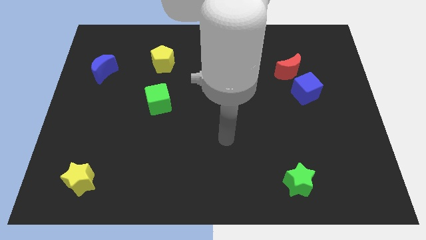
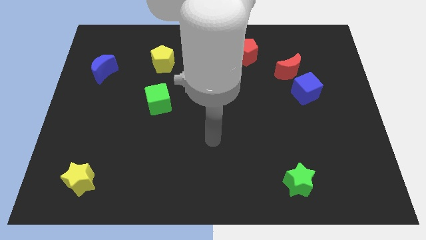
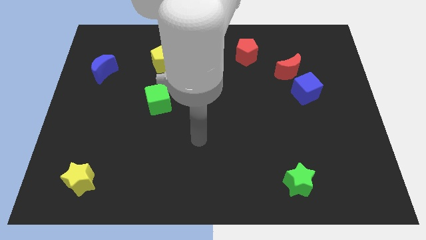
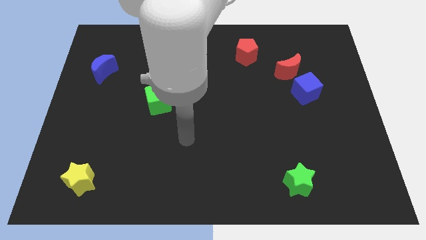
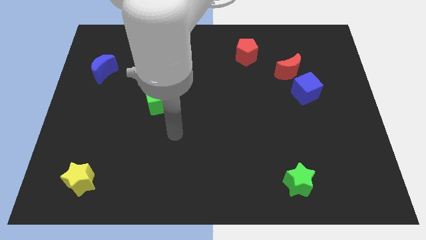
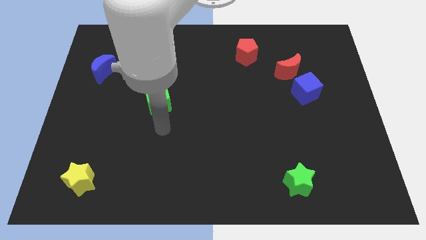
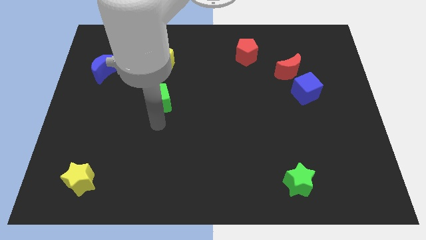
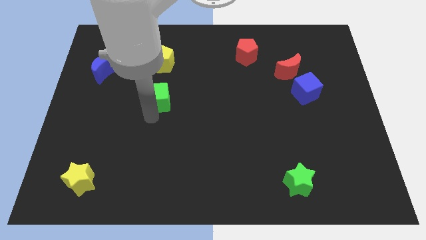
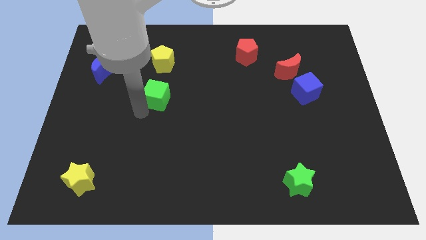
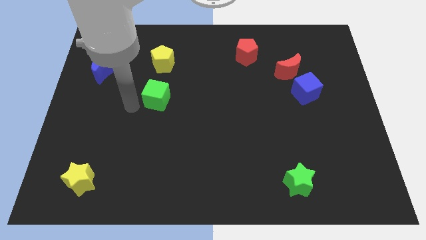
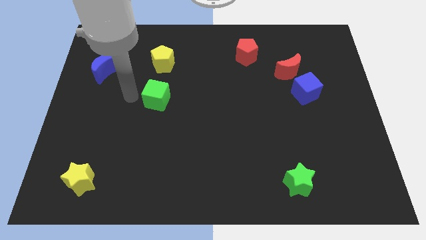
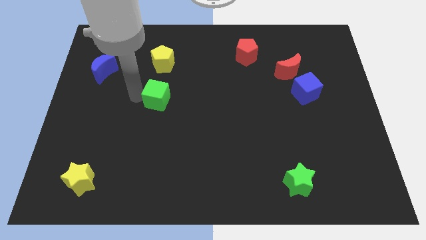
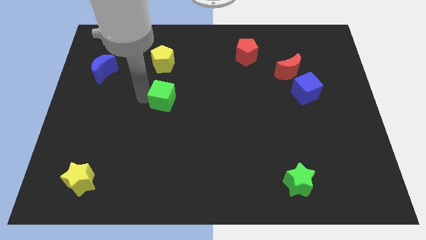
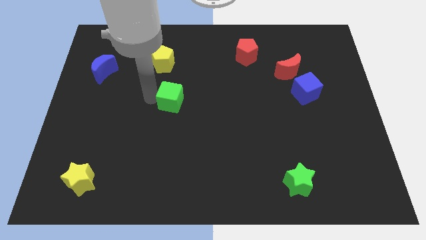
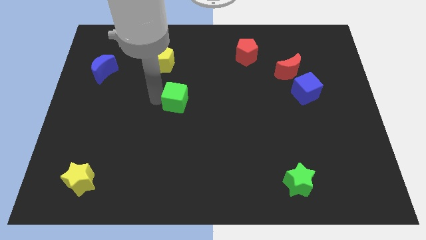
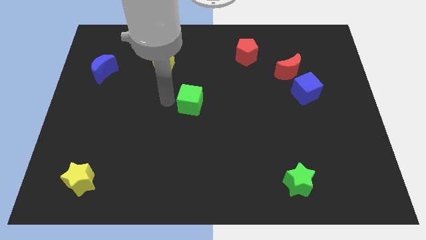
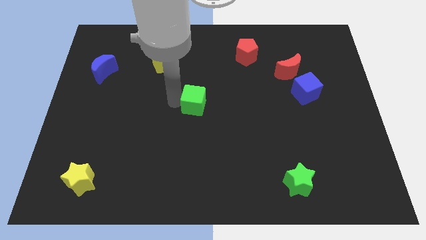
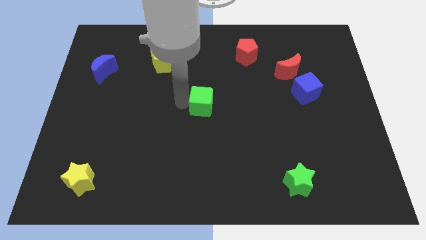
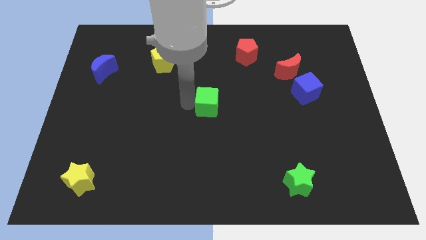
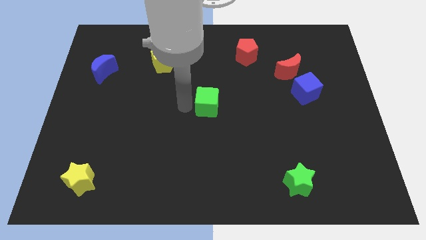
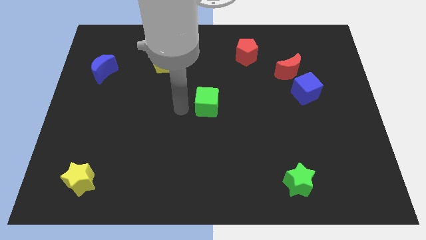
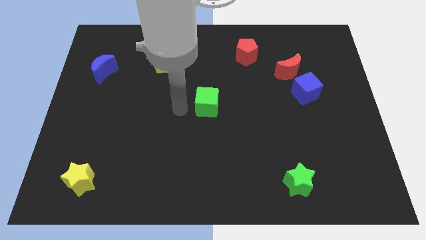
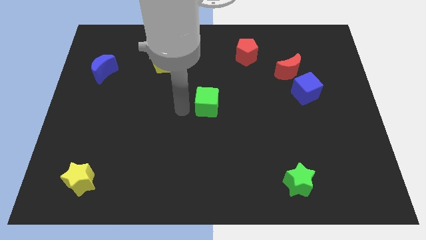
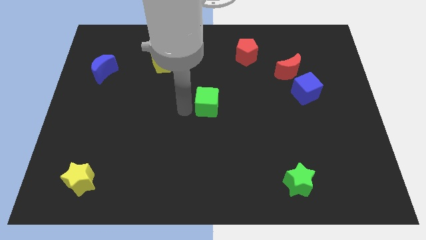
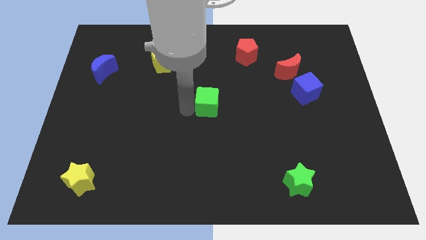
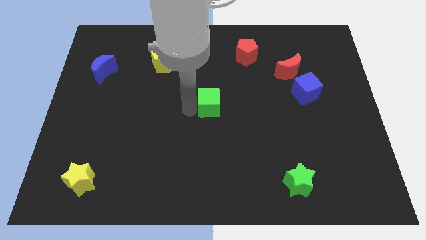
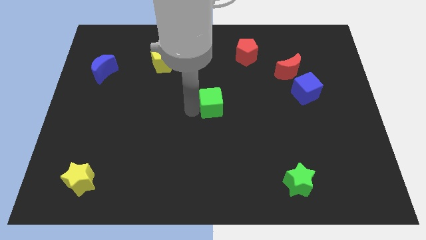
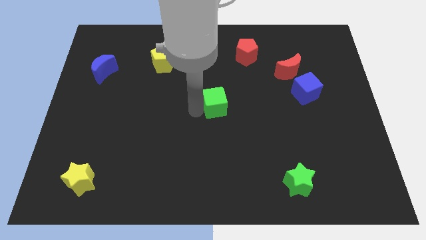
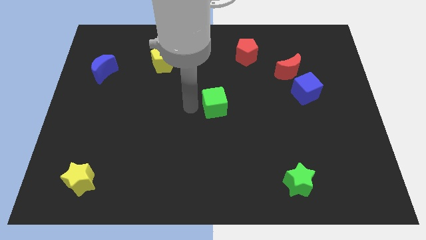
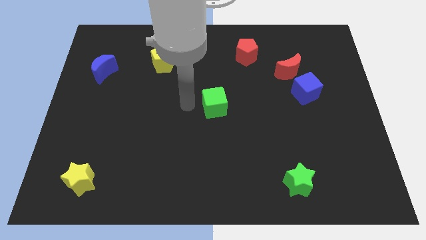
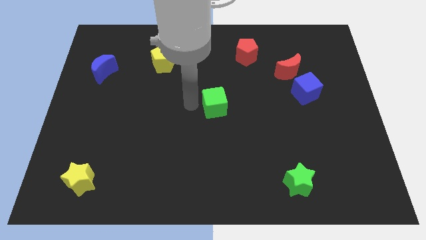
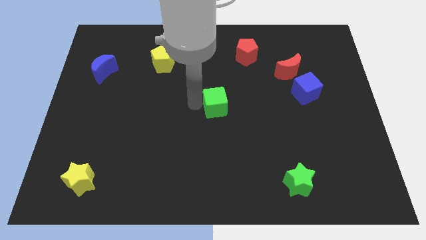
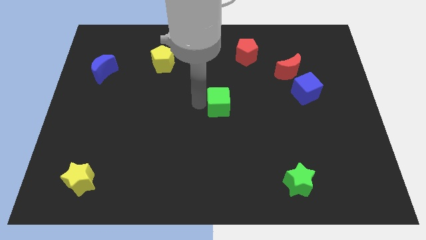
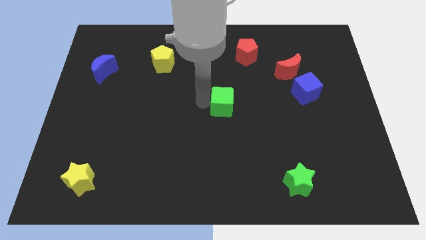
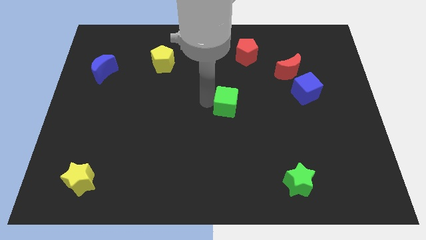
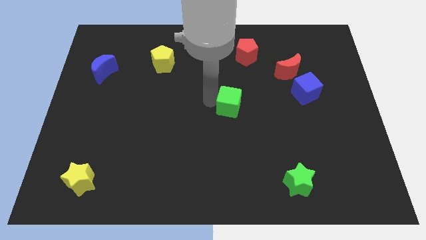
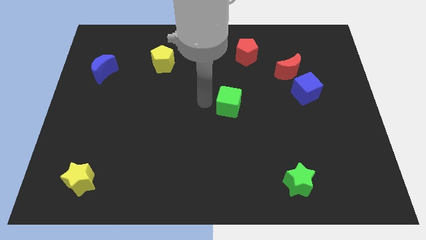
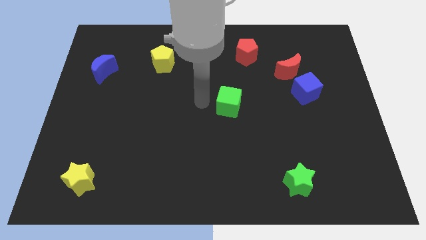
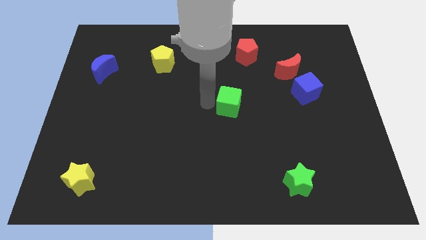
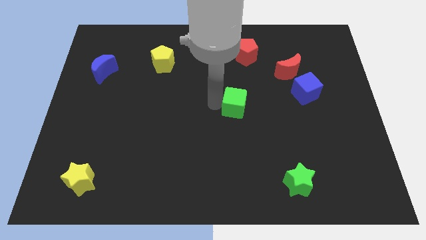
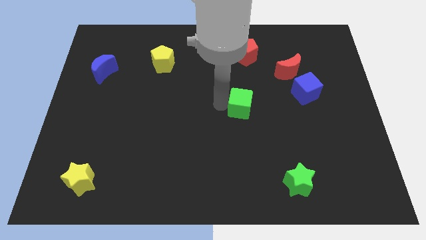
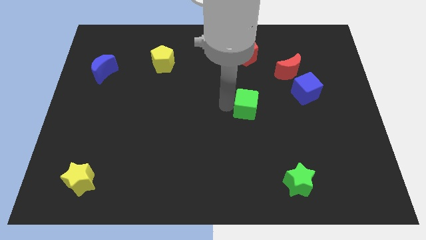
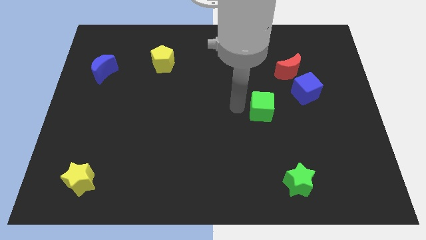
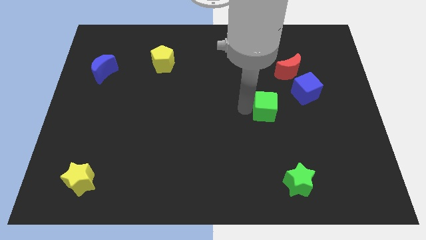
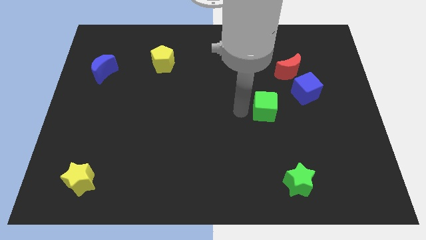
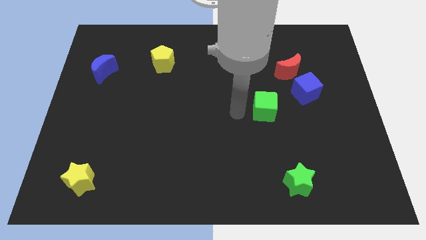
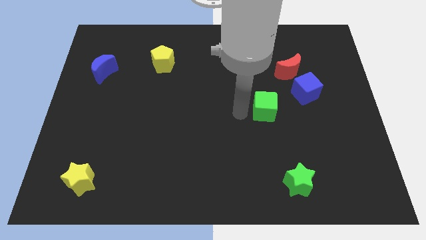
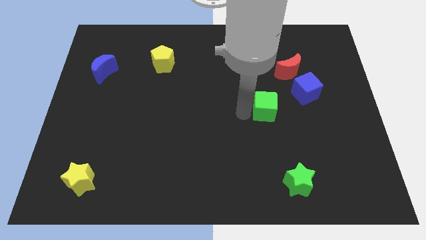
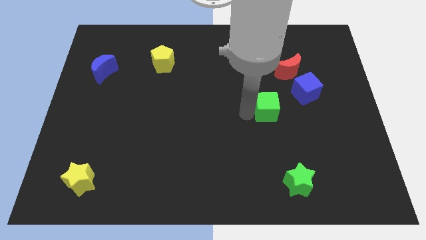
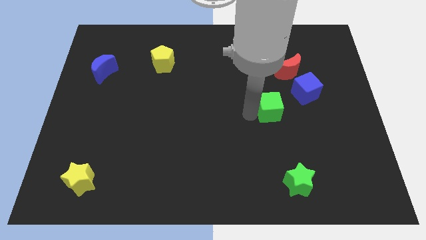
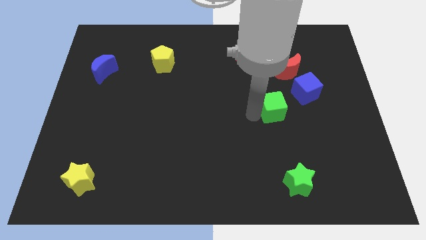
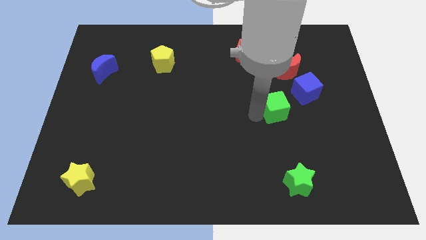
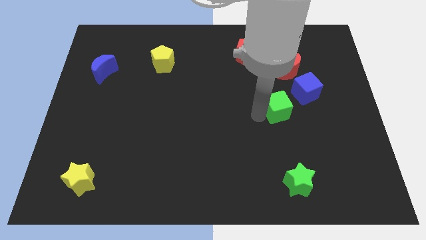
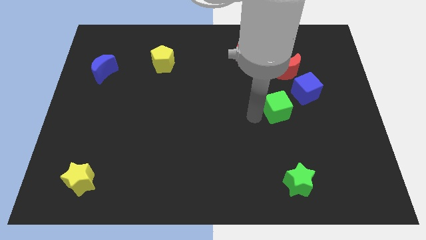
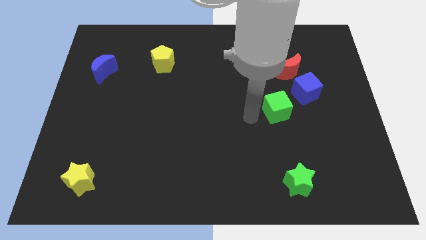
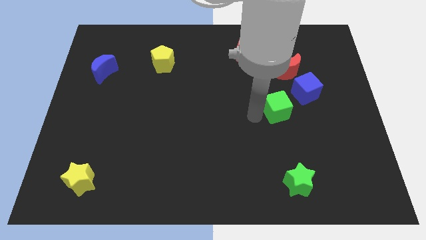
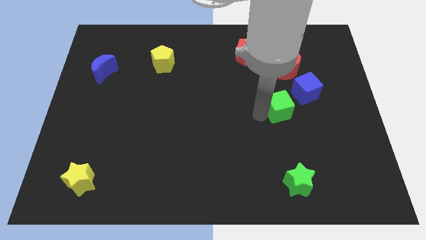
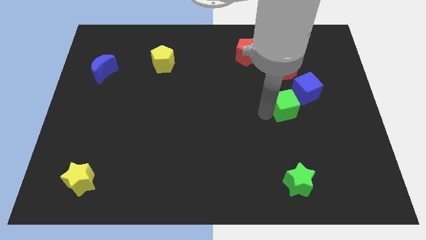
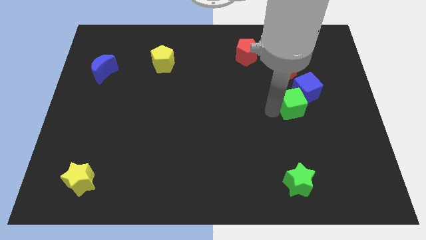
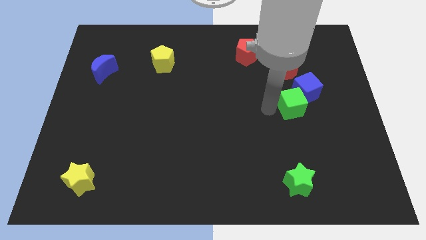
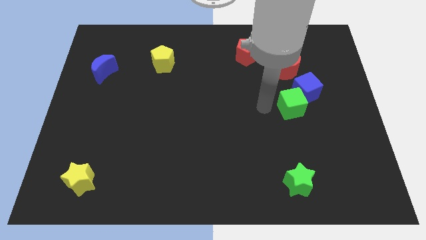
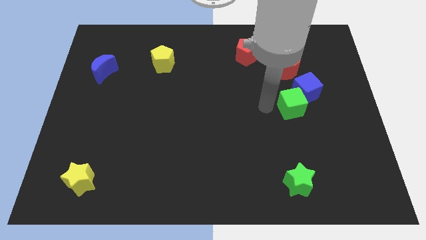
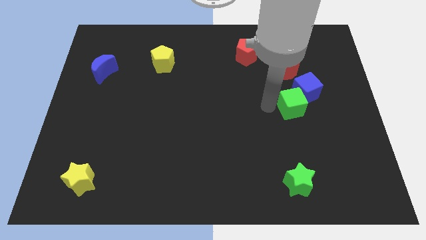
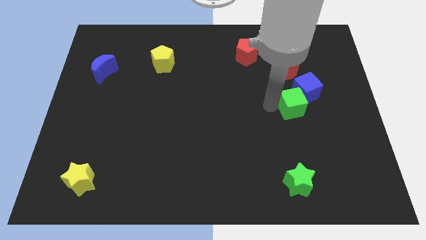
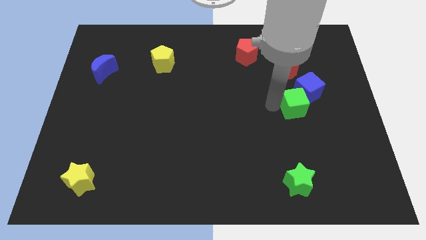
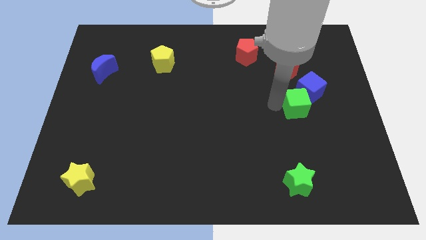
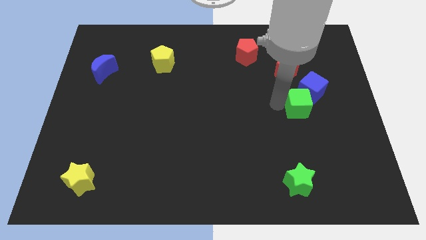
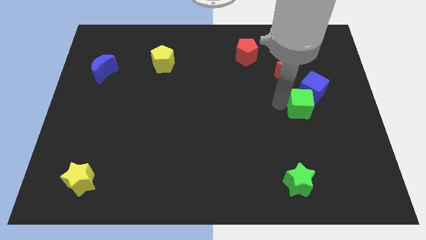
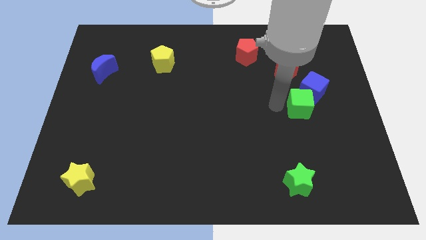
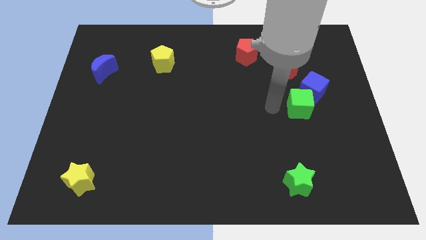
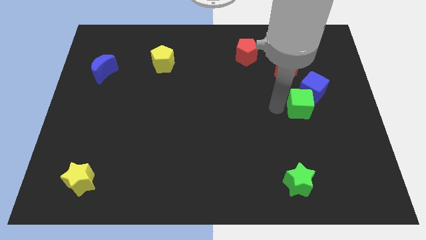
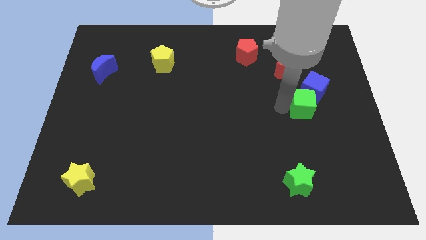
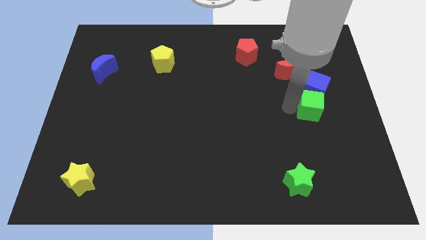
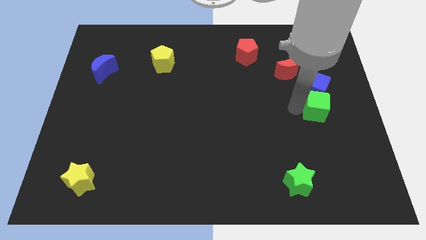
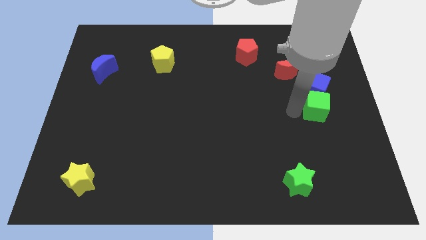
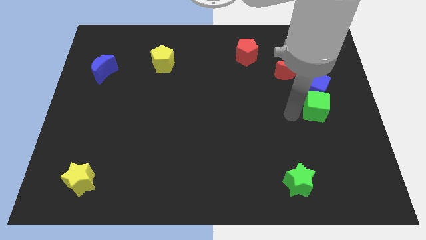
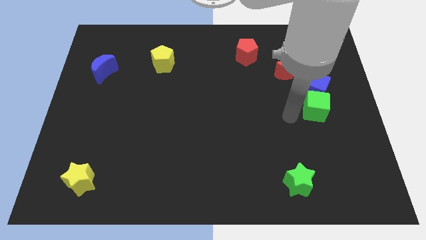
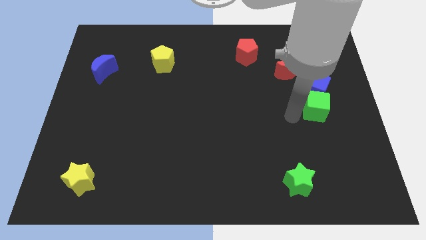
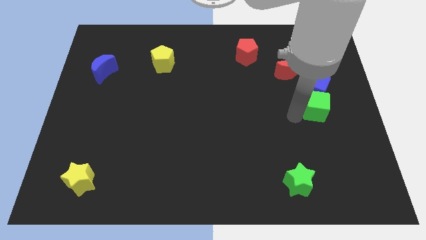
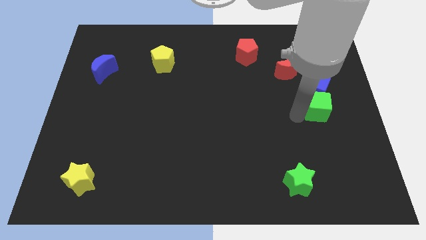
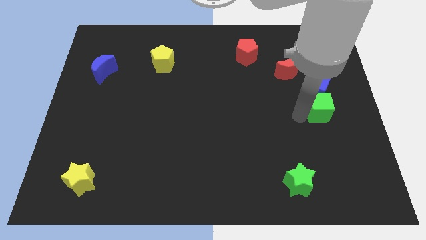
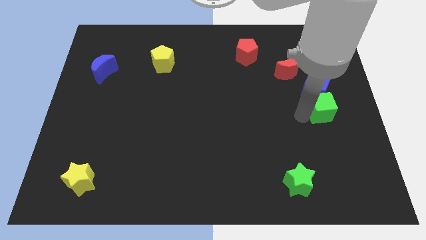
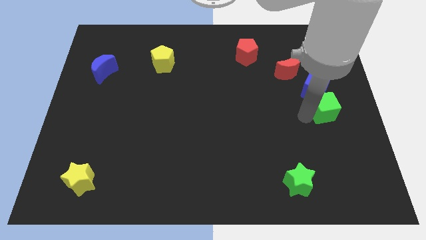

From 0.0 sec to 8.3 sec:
put the green cube to the right side
